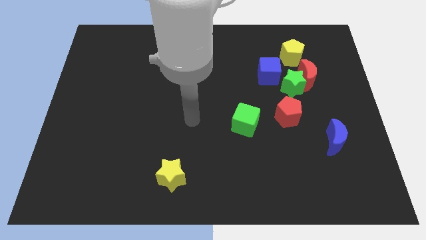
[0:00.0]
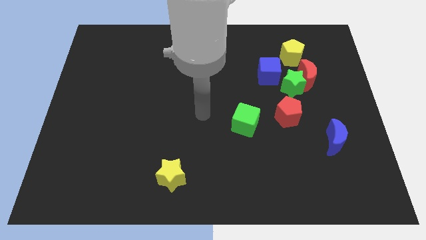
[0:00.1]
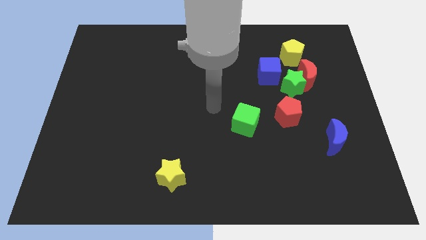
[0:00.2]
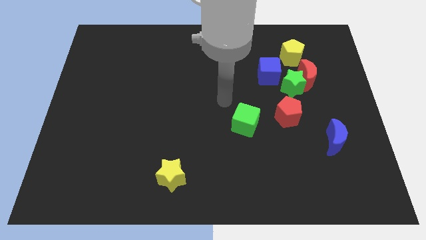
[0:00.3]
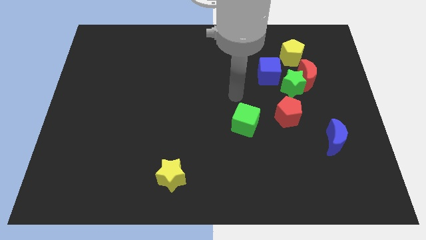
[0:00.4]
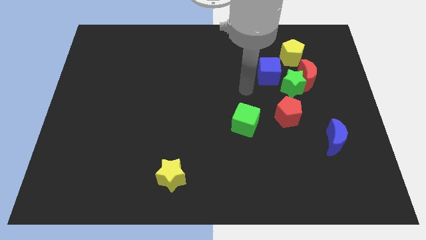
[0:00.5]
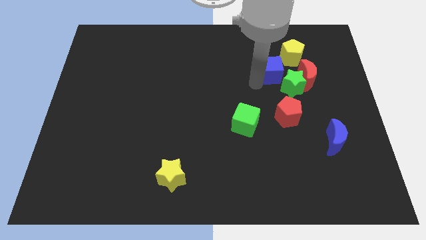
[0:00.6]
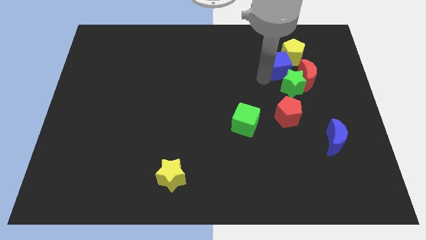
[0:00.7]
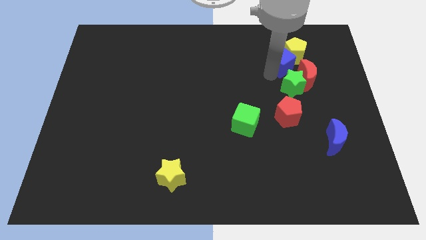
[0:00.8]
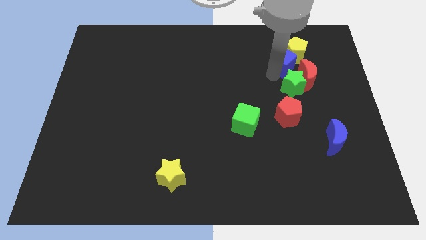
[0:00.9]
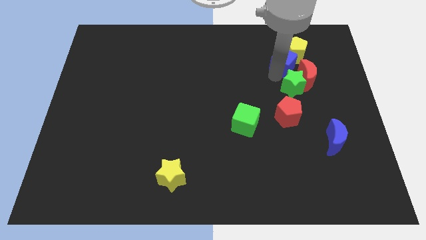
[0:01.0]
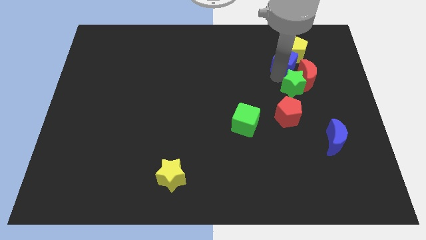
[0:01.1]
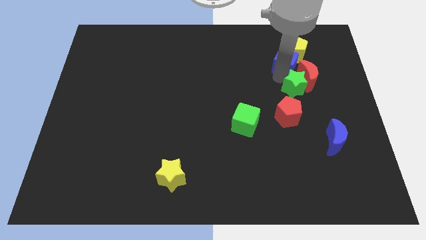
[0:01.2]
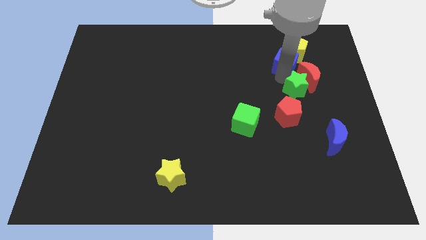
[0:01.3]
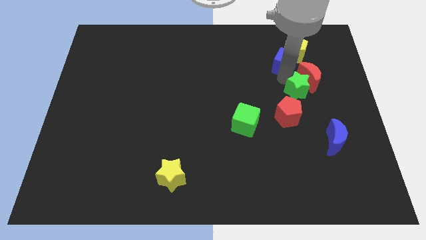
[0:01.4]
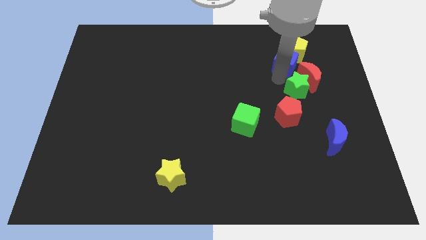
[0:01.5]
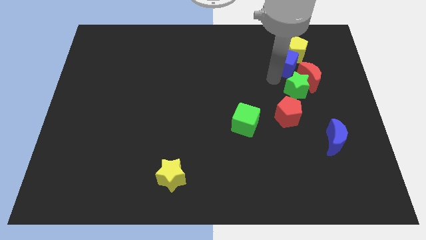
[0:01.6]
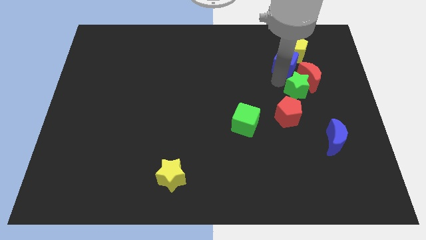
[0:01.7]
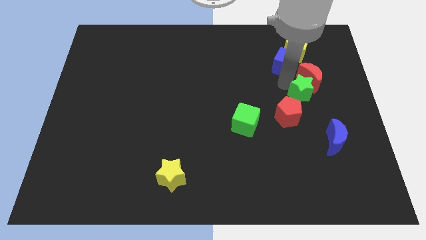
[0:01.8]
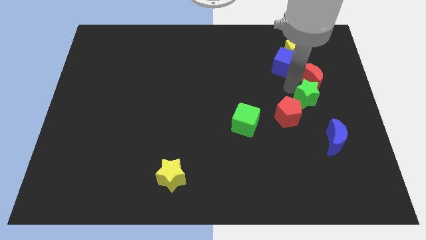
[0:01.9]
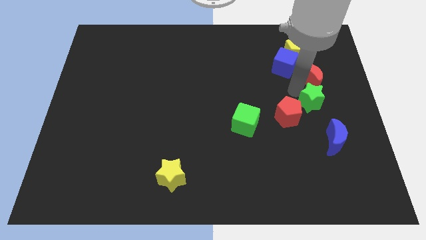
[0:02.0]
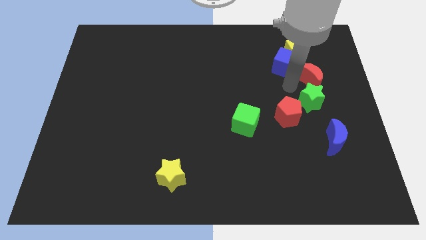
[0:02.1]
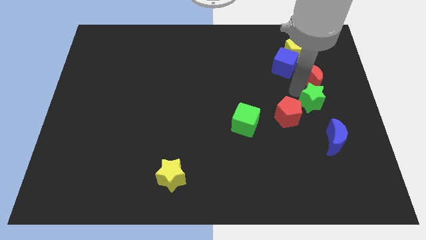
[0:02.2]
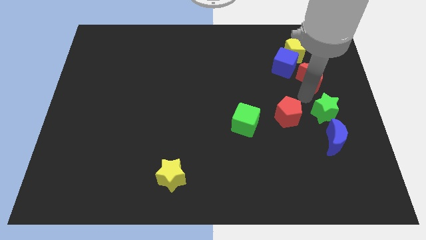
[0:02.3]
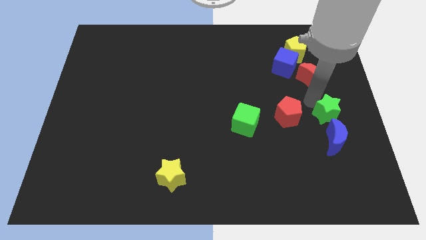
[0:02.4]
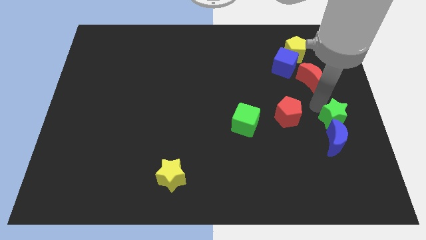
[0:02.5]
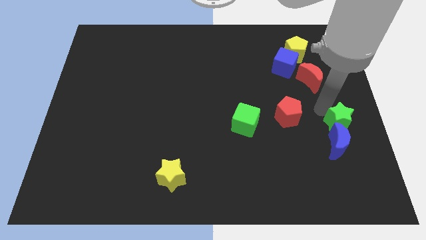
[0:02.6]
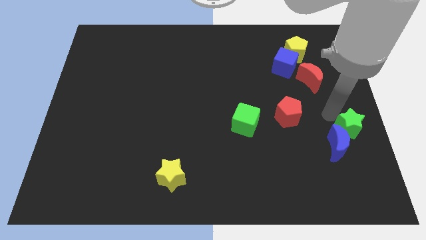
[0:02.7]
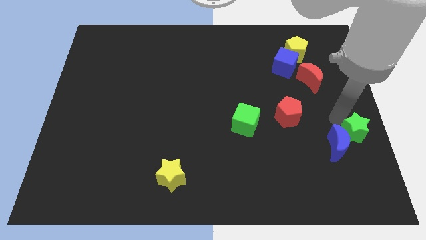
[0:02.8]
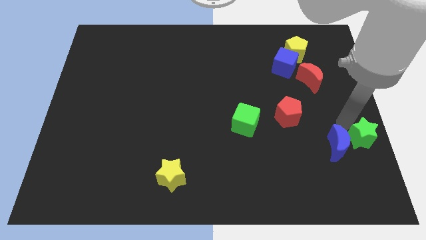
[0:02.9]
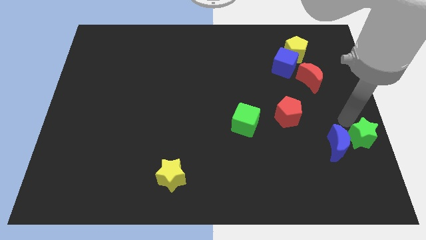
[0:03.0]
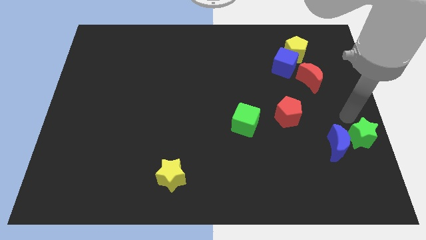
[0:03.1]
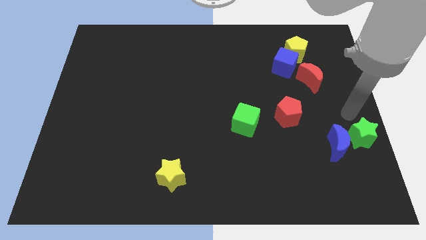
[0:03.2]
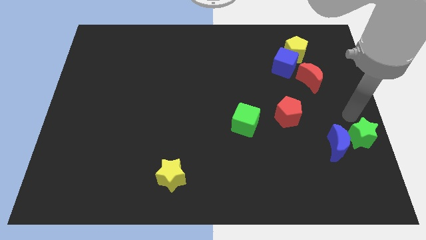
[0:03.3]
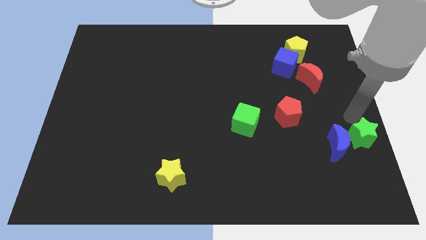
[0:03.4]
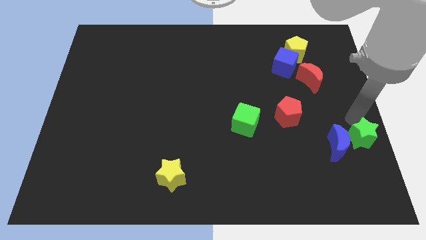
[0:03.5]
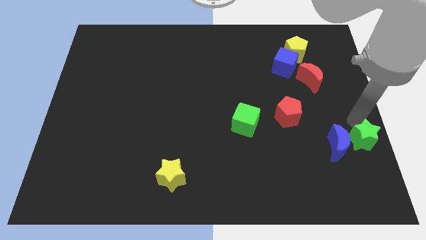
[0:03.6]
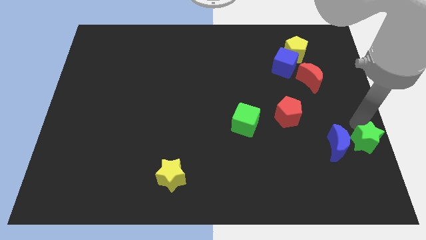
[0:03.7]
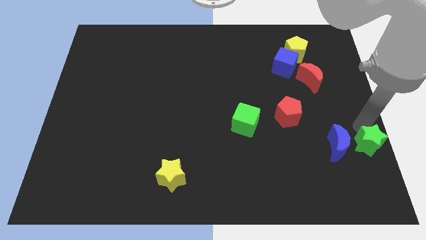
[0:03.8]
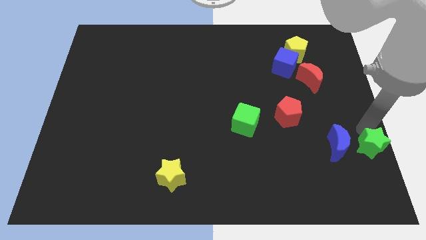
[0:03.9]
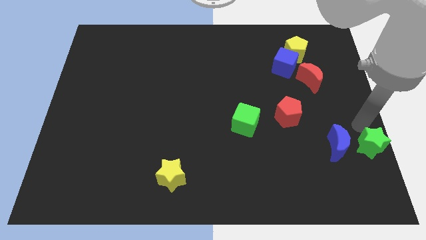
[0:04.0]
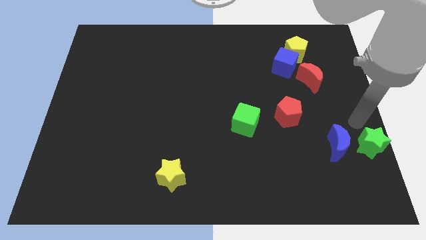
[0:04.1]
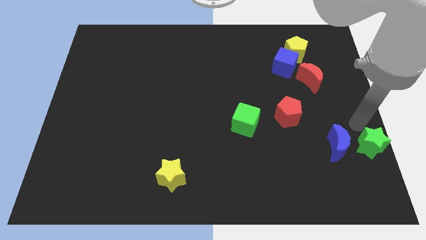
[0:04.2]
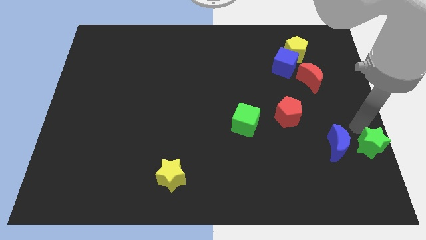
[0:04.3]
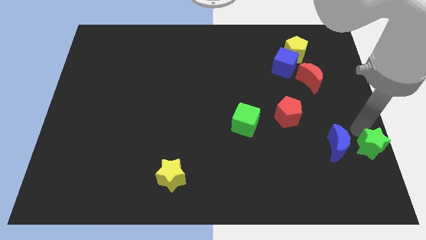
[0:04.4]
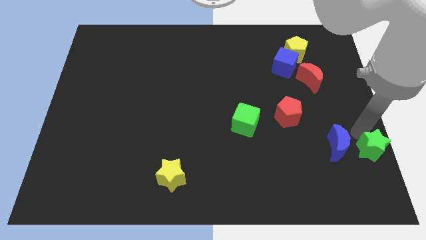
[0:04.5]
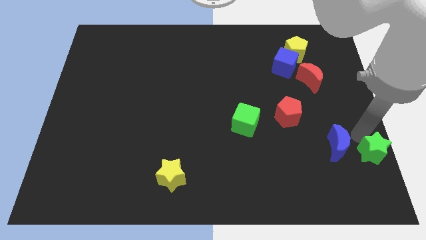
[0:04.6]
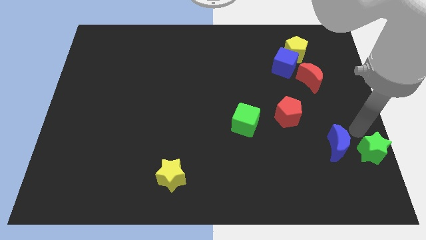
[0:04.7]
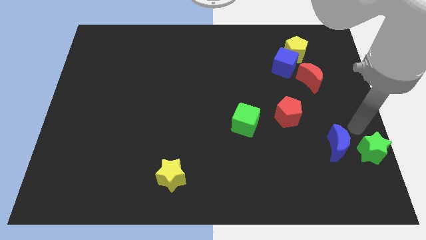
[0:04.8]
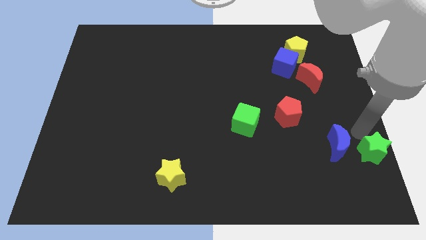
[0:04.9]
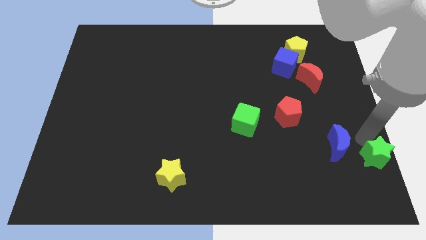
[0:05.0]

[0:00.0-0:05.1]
push the green star to the lower right corner
